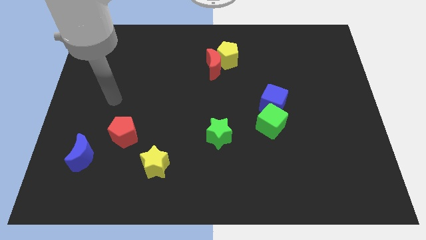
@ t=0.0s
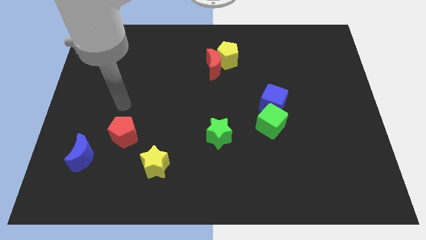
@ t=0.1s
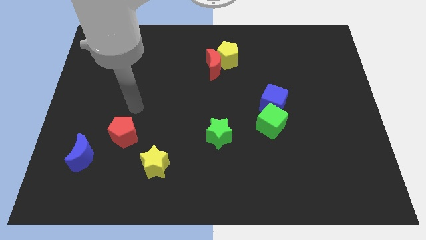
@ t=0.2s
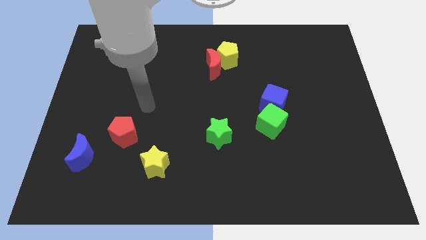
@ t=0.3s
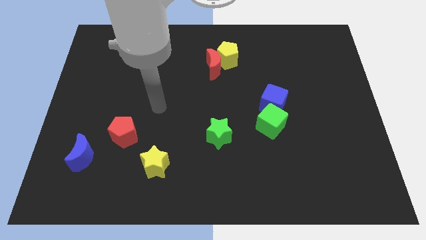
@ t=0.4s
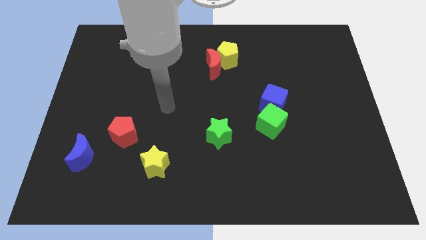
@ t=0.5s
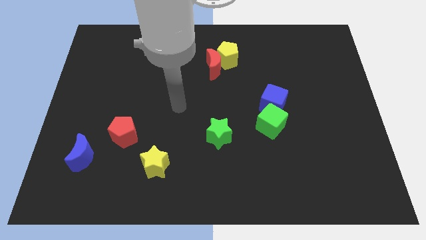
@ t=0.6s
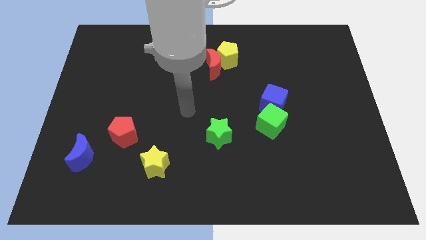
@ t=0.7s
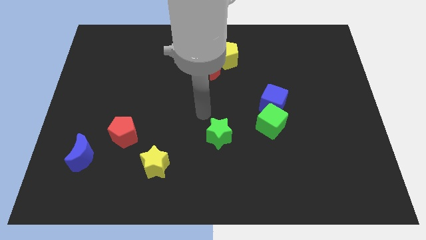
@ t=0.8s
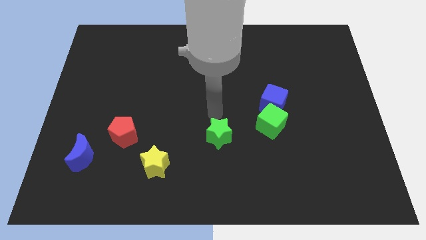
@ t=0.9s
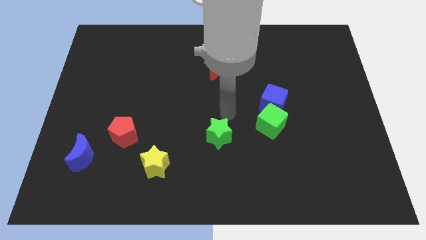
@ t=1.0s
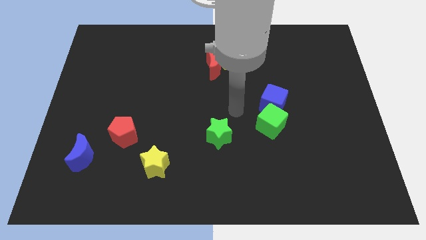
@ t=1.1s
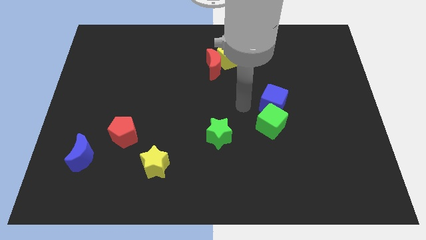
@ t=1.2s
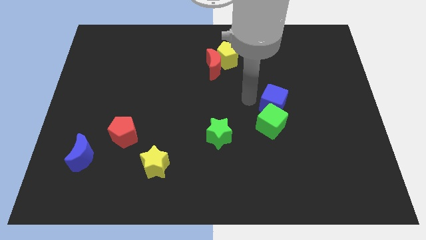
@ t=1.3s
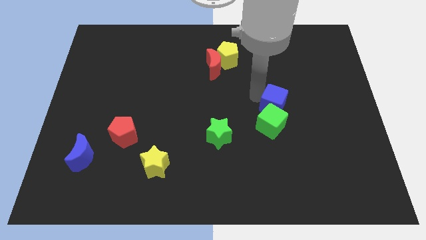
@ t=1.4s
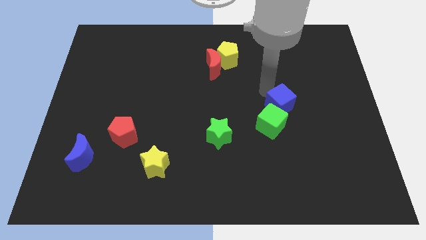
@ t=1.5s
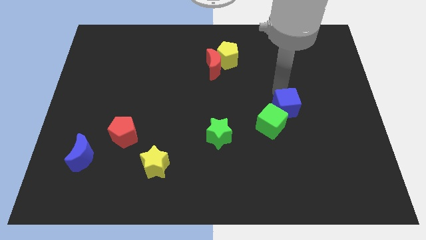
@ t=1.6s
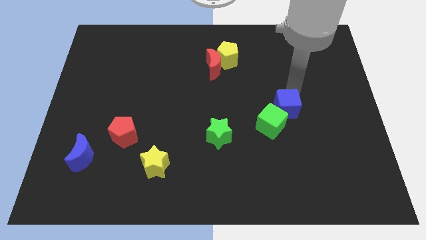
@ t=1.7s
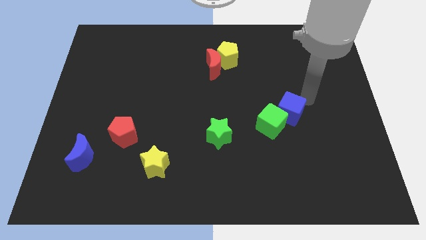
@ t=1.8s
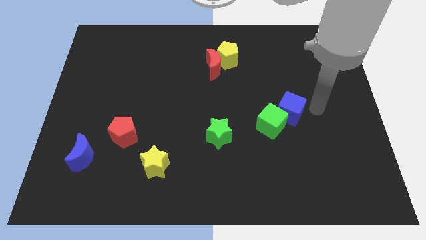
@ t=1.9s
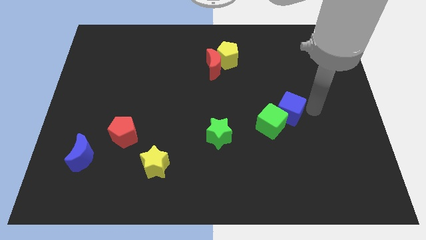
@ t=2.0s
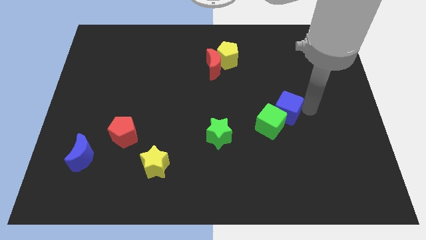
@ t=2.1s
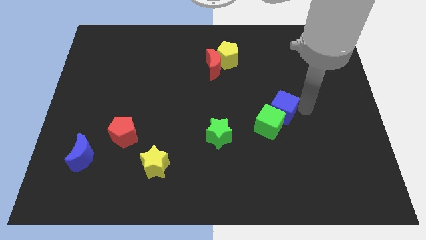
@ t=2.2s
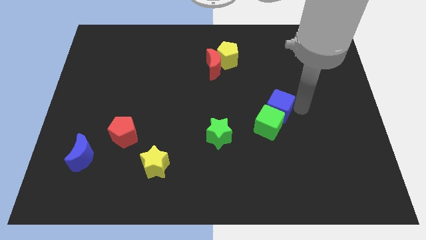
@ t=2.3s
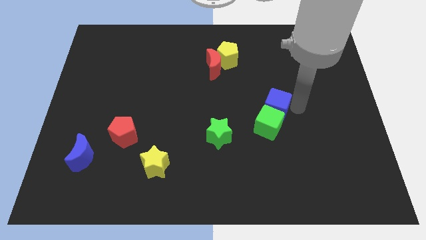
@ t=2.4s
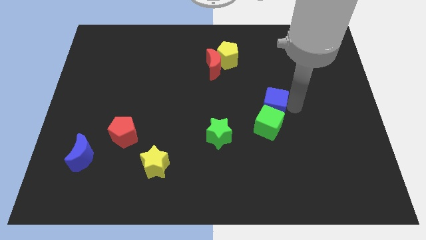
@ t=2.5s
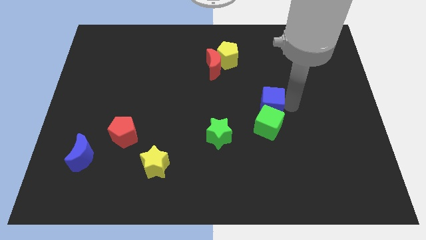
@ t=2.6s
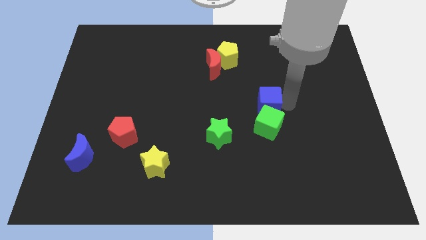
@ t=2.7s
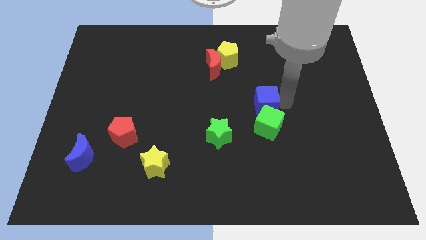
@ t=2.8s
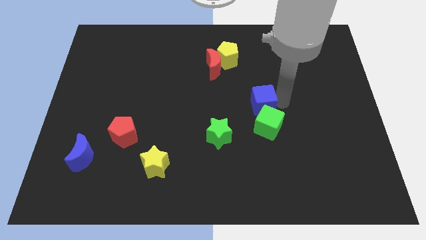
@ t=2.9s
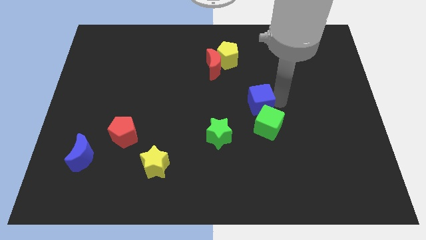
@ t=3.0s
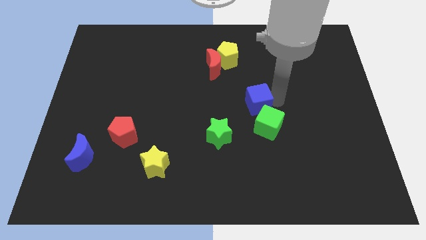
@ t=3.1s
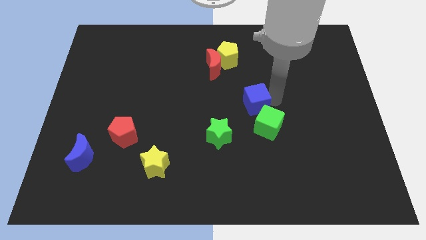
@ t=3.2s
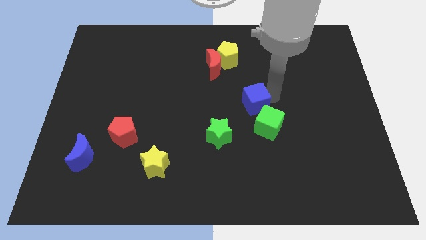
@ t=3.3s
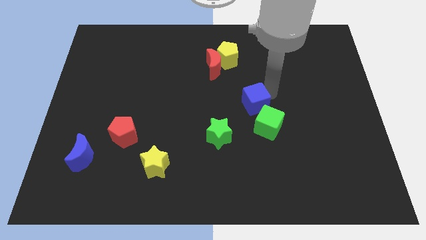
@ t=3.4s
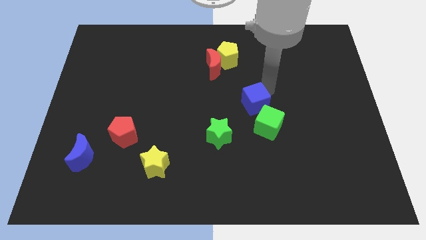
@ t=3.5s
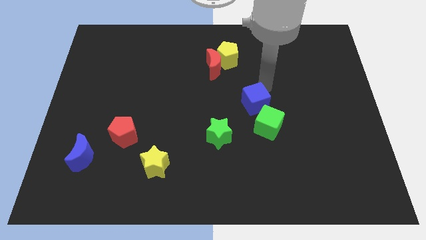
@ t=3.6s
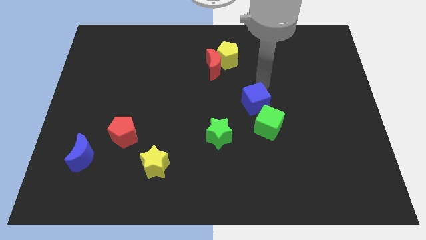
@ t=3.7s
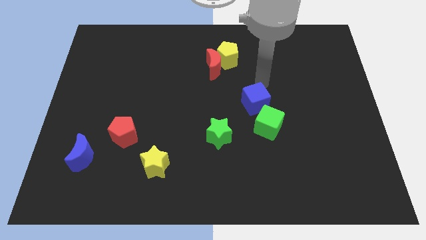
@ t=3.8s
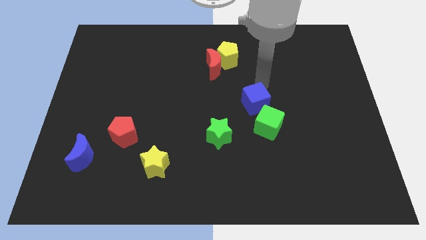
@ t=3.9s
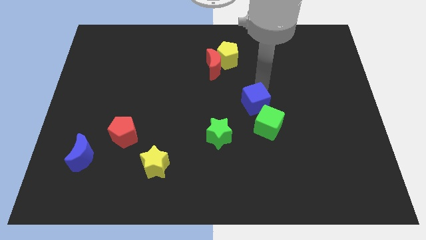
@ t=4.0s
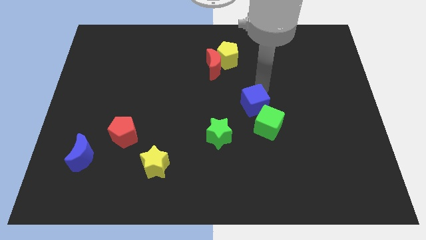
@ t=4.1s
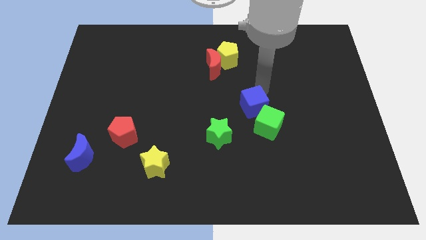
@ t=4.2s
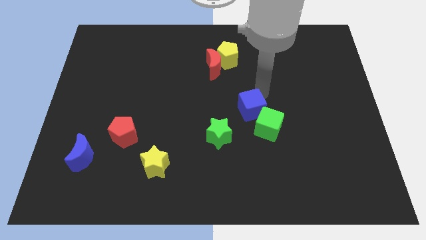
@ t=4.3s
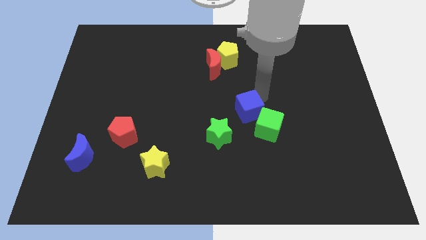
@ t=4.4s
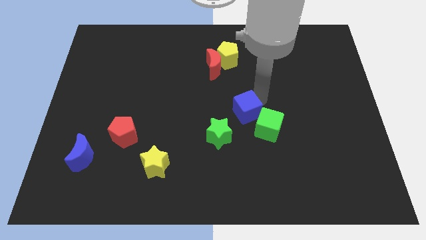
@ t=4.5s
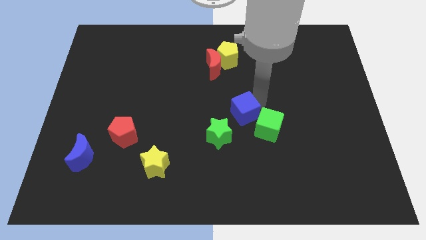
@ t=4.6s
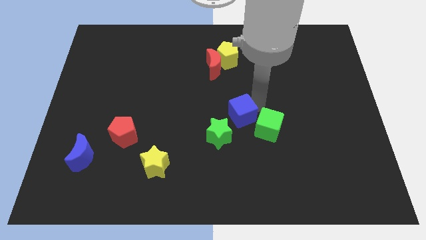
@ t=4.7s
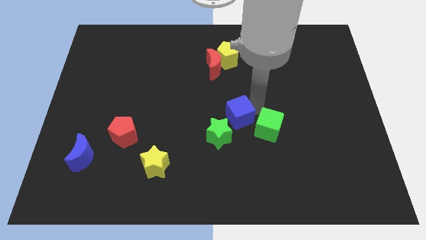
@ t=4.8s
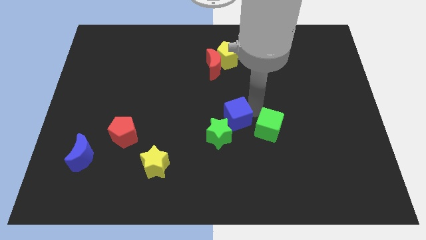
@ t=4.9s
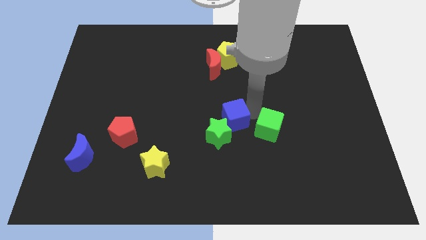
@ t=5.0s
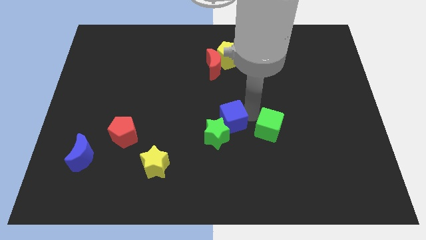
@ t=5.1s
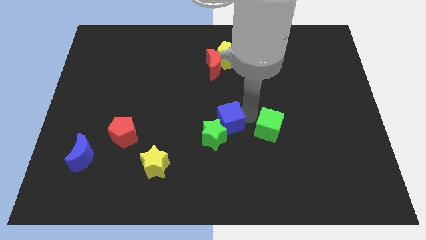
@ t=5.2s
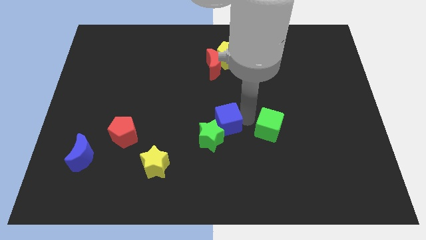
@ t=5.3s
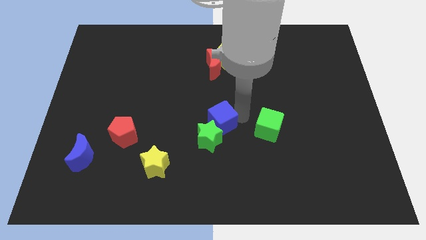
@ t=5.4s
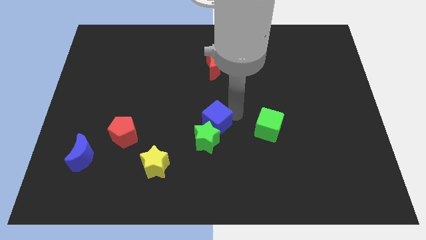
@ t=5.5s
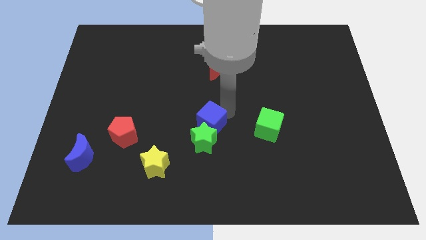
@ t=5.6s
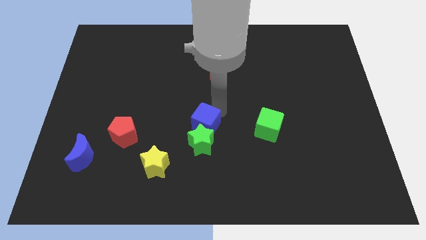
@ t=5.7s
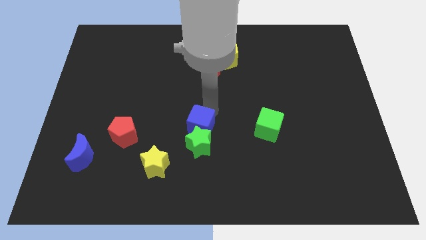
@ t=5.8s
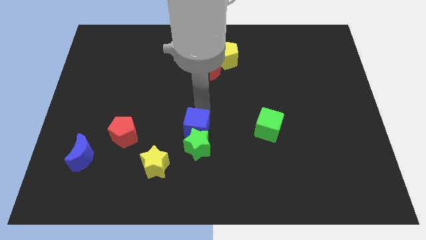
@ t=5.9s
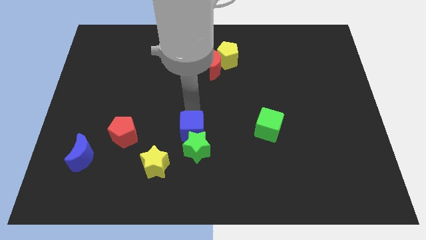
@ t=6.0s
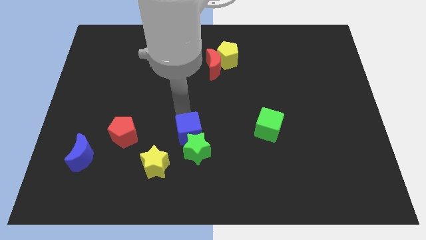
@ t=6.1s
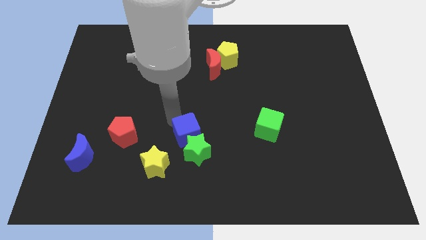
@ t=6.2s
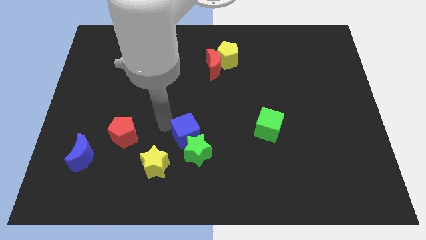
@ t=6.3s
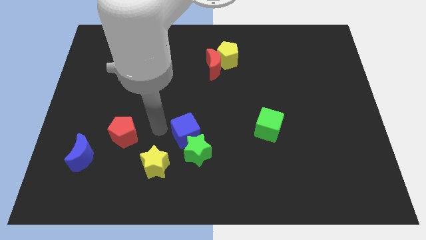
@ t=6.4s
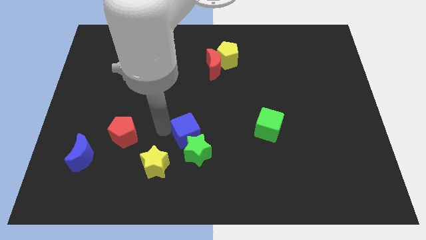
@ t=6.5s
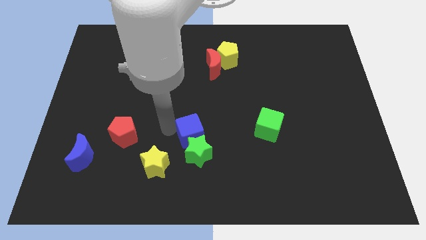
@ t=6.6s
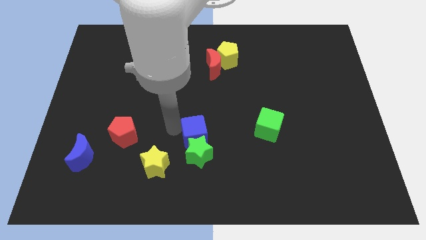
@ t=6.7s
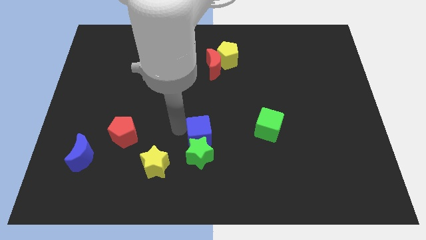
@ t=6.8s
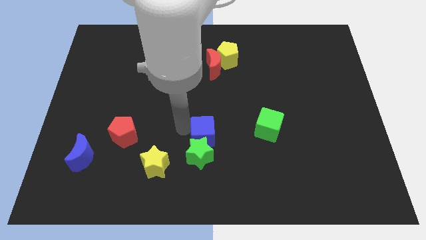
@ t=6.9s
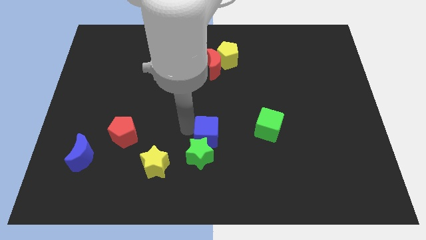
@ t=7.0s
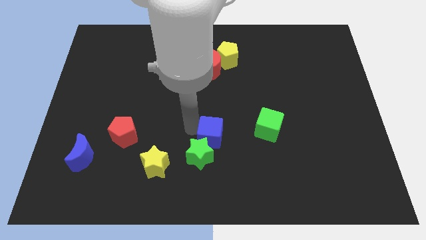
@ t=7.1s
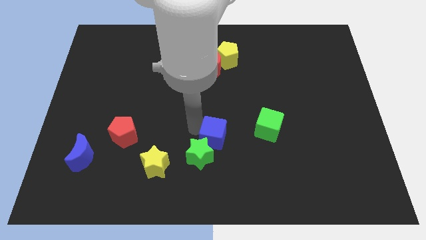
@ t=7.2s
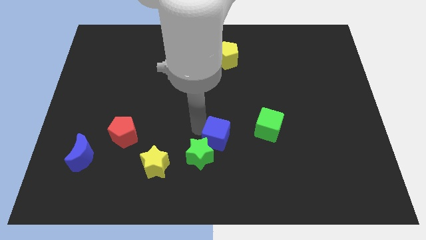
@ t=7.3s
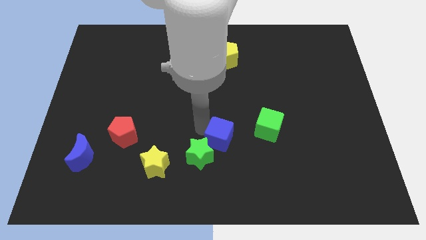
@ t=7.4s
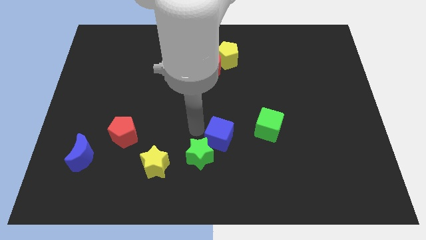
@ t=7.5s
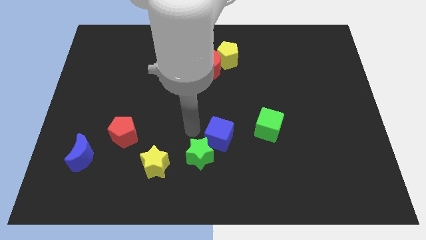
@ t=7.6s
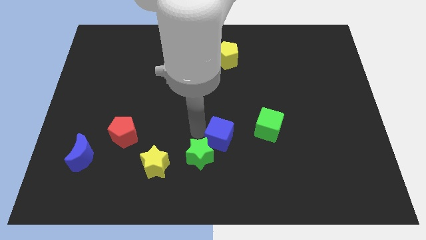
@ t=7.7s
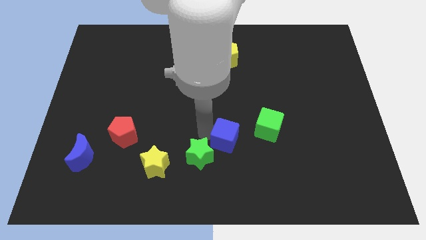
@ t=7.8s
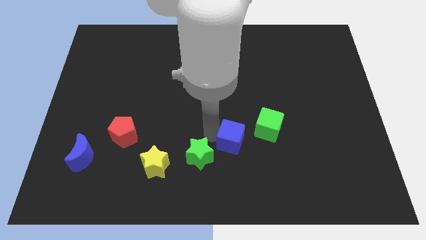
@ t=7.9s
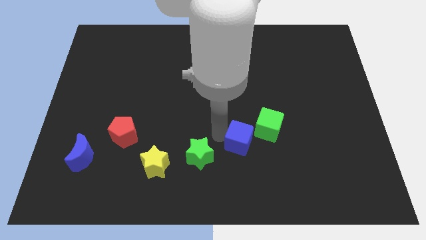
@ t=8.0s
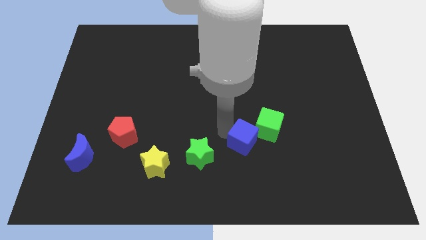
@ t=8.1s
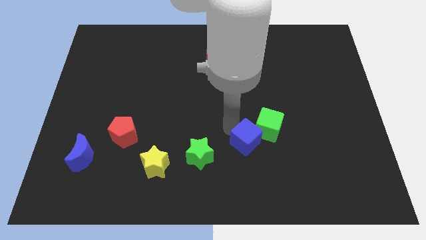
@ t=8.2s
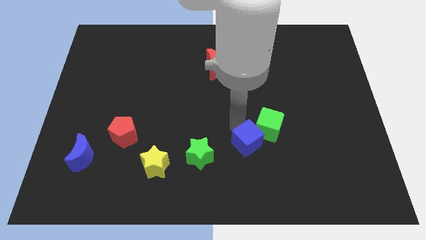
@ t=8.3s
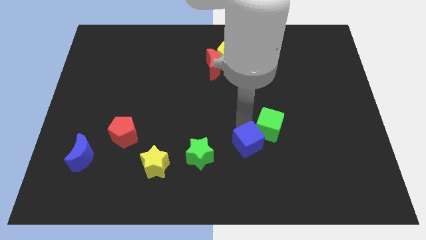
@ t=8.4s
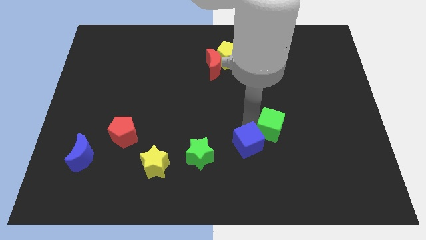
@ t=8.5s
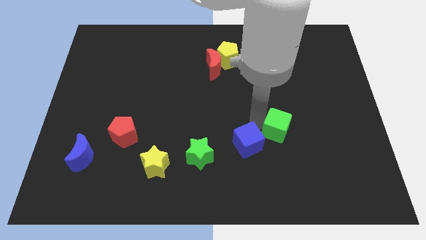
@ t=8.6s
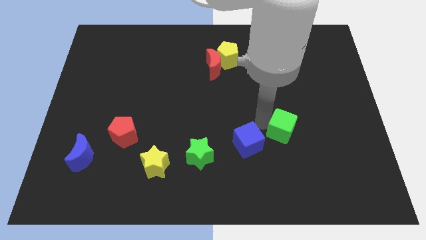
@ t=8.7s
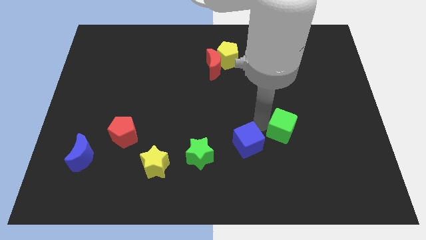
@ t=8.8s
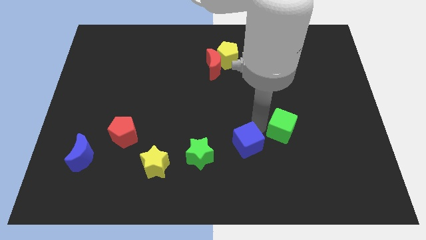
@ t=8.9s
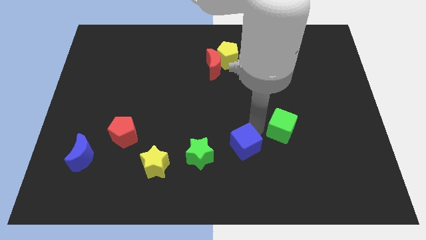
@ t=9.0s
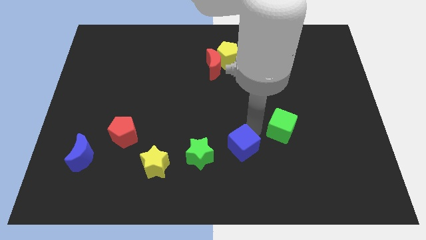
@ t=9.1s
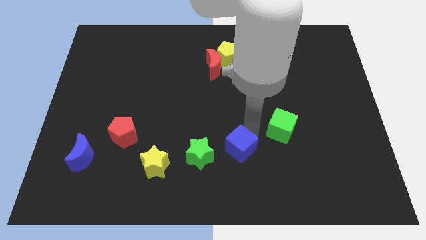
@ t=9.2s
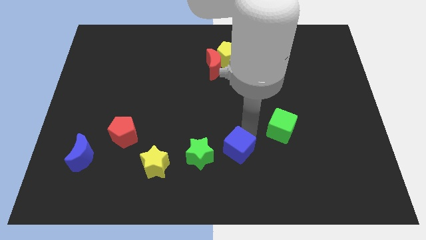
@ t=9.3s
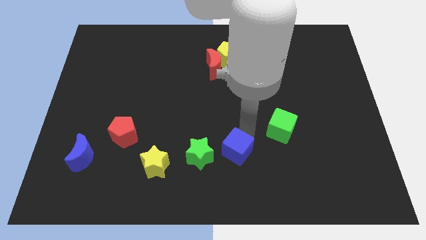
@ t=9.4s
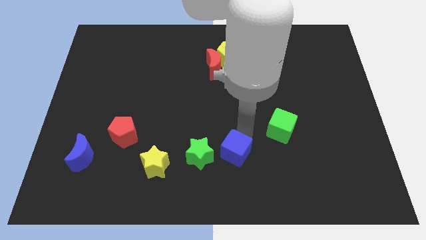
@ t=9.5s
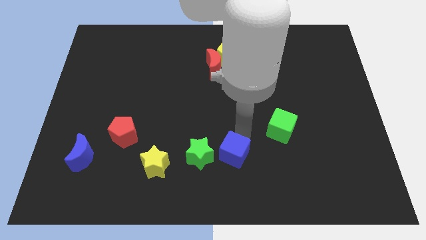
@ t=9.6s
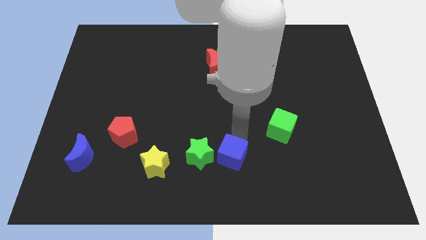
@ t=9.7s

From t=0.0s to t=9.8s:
move the blue cube to the bottom side
